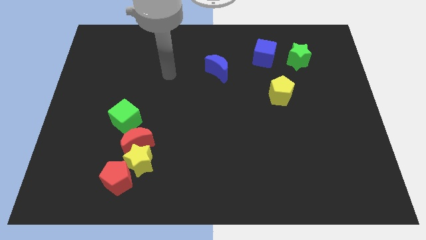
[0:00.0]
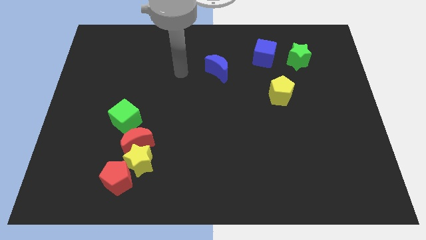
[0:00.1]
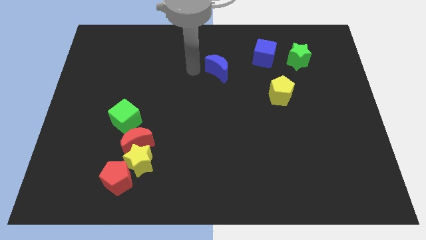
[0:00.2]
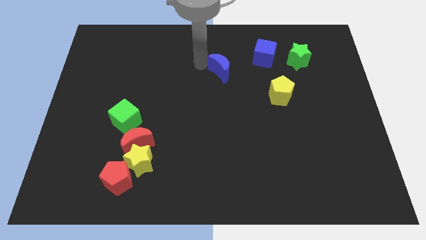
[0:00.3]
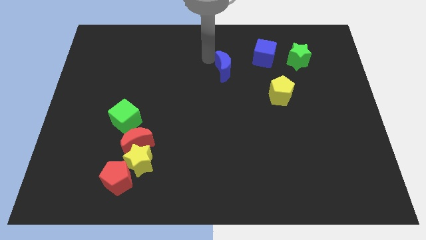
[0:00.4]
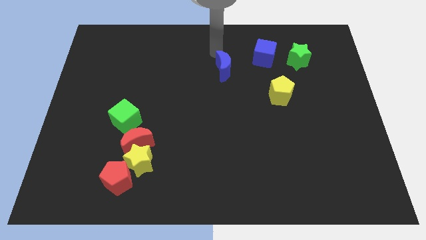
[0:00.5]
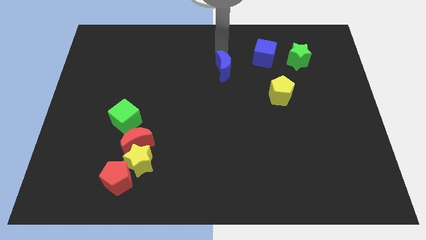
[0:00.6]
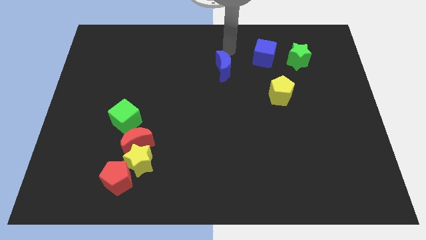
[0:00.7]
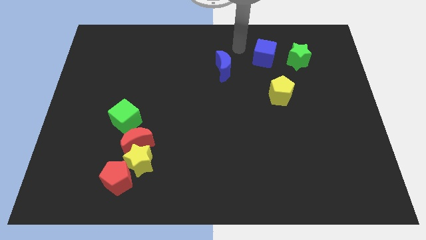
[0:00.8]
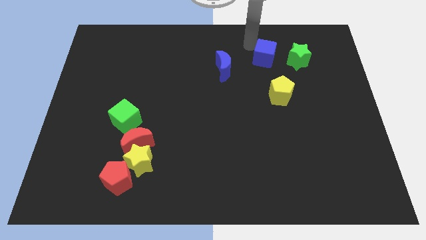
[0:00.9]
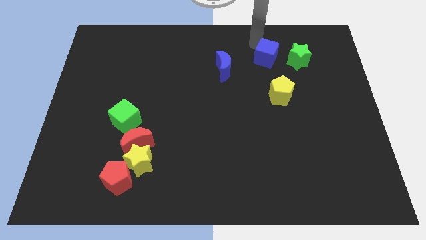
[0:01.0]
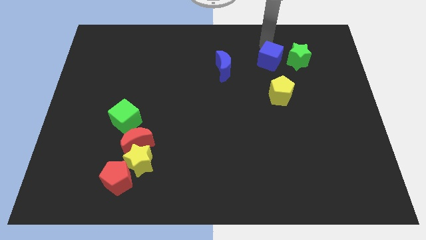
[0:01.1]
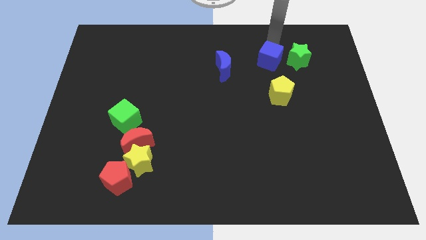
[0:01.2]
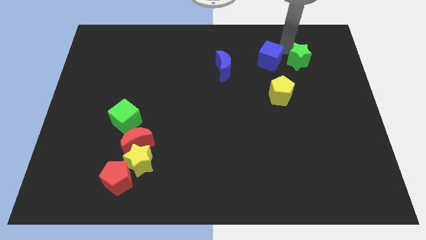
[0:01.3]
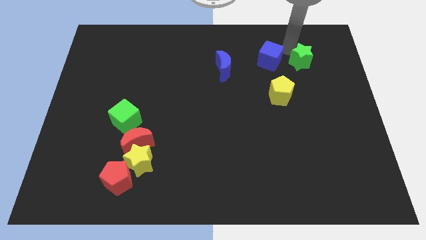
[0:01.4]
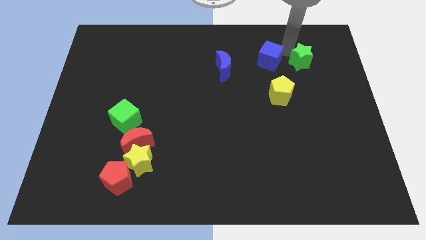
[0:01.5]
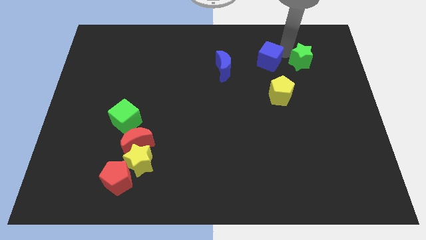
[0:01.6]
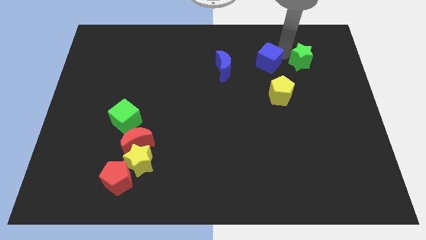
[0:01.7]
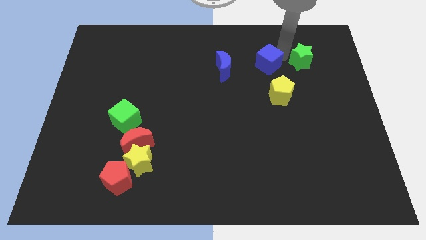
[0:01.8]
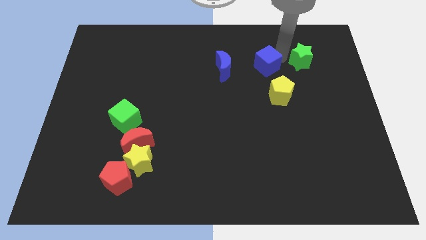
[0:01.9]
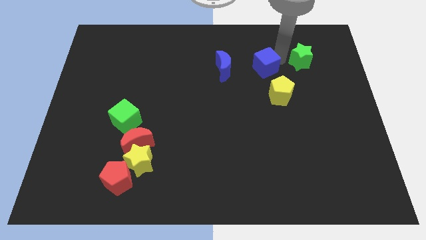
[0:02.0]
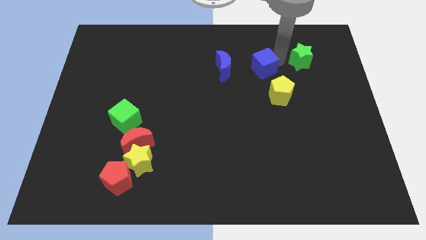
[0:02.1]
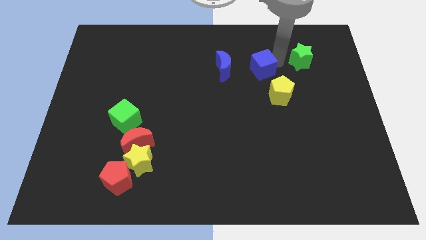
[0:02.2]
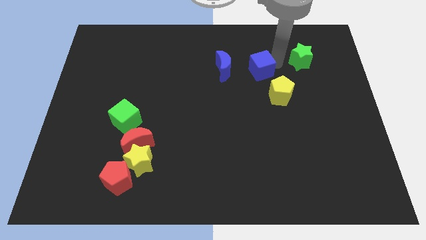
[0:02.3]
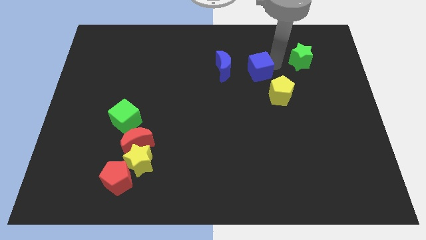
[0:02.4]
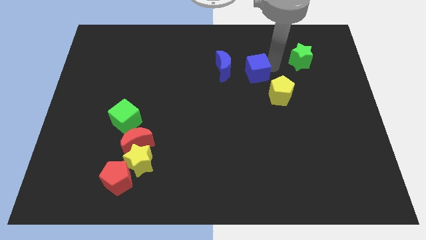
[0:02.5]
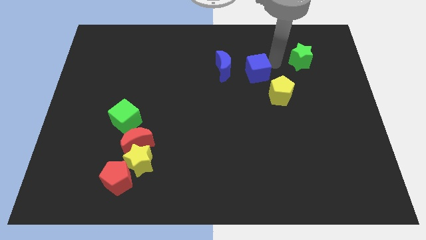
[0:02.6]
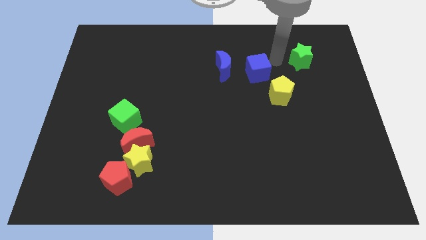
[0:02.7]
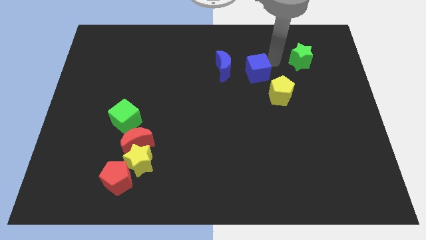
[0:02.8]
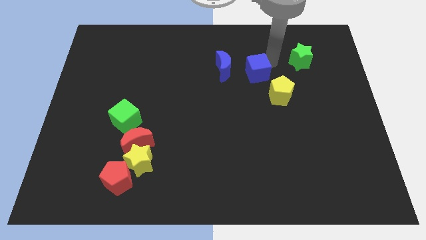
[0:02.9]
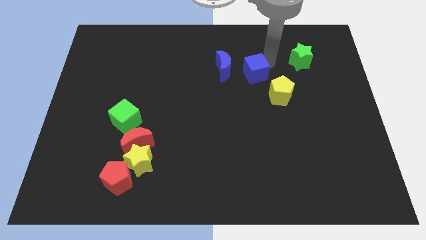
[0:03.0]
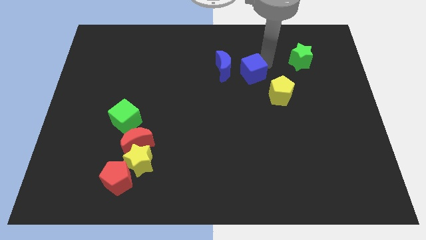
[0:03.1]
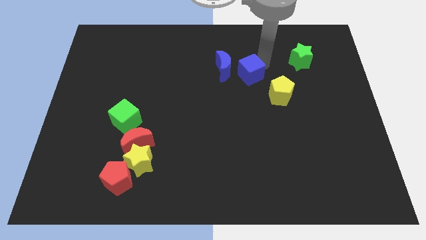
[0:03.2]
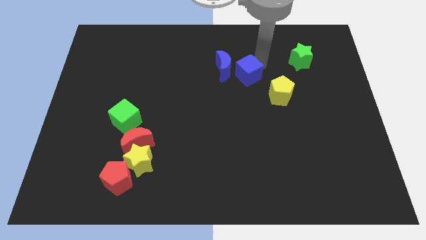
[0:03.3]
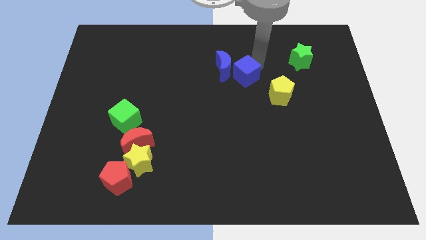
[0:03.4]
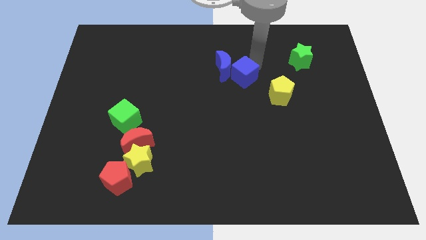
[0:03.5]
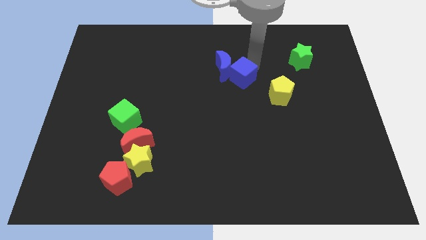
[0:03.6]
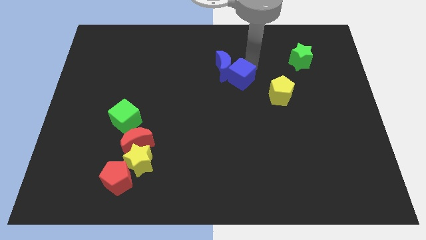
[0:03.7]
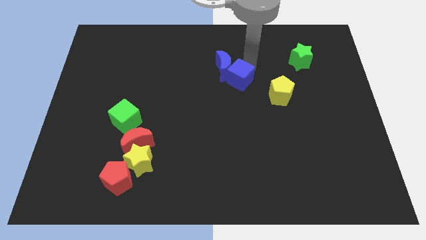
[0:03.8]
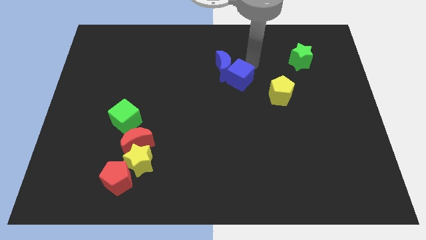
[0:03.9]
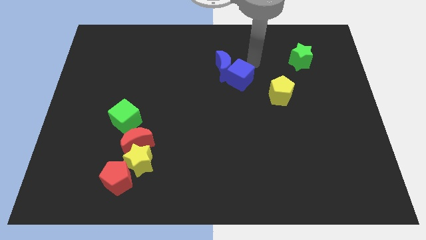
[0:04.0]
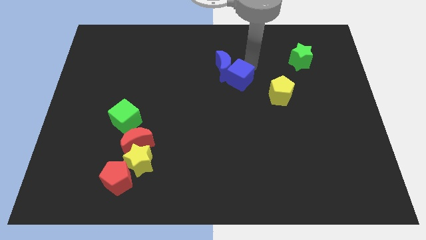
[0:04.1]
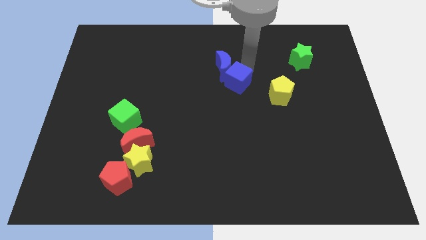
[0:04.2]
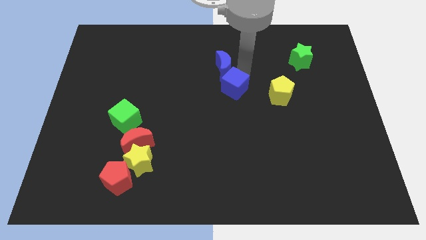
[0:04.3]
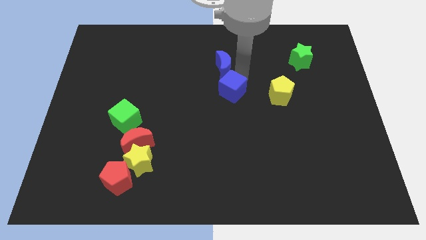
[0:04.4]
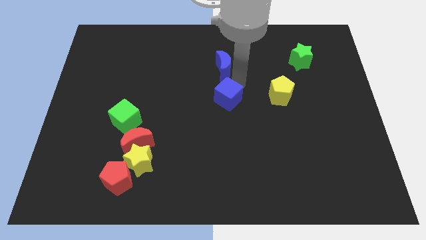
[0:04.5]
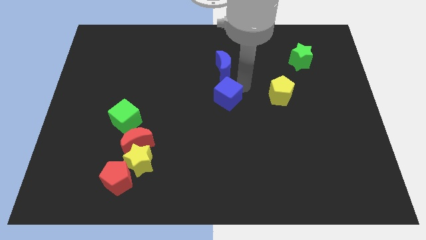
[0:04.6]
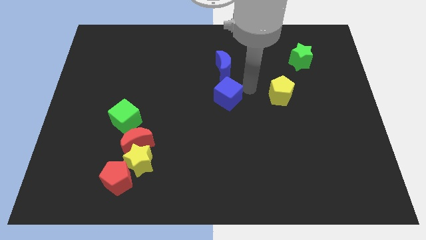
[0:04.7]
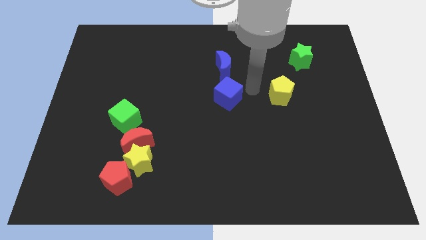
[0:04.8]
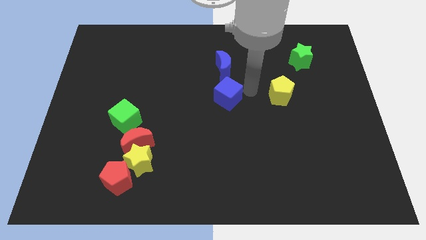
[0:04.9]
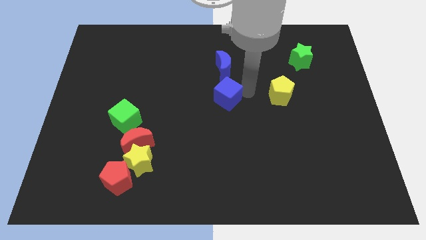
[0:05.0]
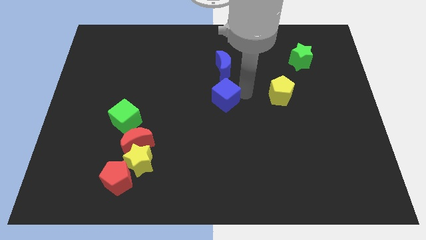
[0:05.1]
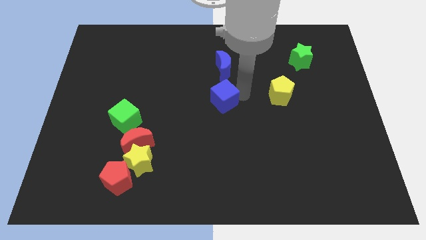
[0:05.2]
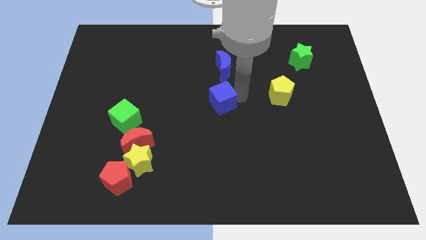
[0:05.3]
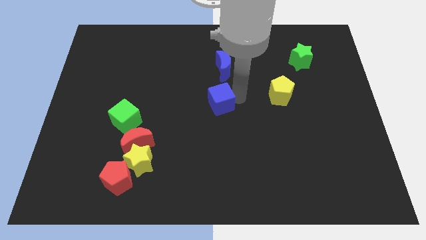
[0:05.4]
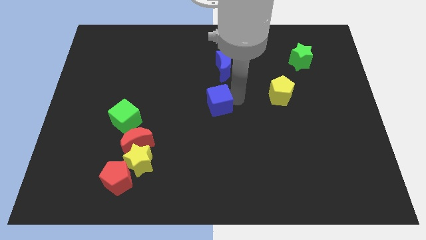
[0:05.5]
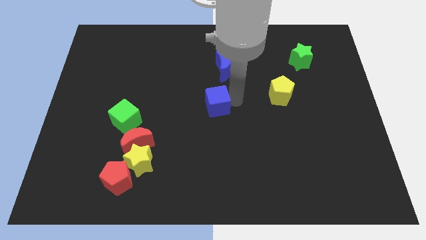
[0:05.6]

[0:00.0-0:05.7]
slide the blue cube downwards and left diagonally

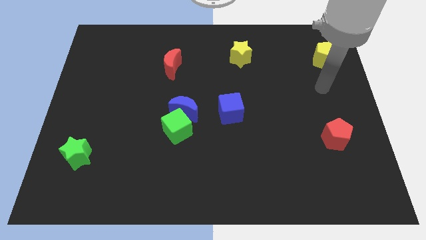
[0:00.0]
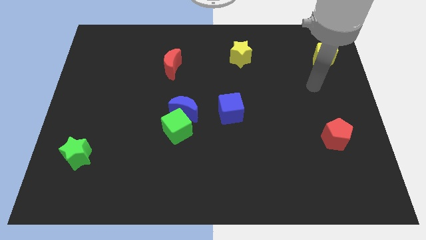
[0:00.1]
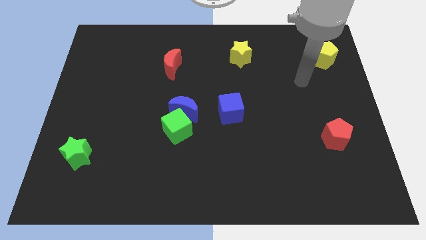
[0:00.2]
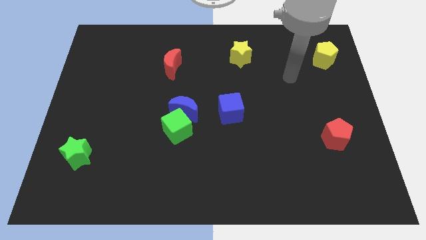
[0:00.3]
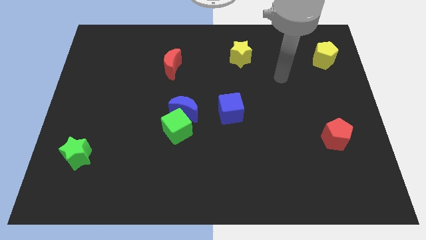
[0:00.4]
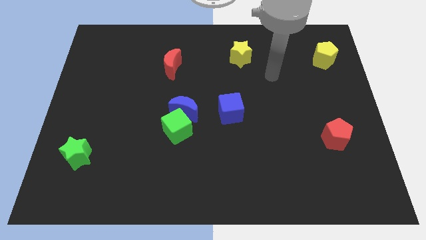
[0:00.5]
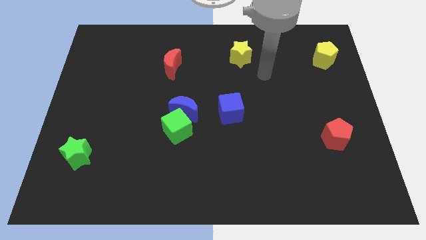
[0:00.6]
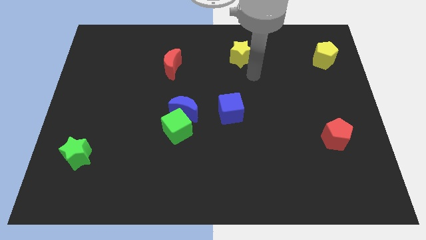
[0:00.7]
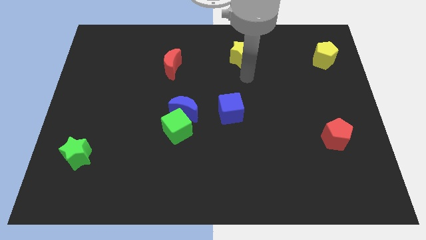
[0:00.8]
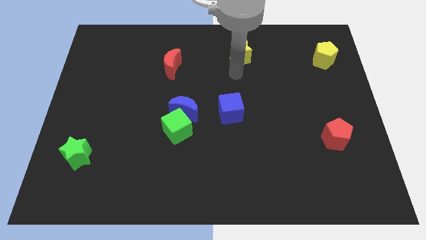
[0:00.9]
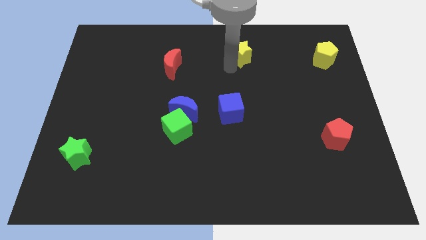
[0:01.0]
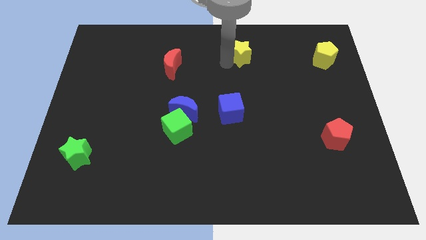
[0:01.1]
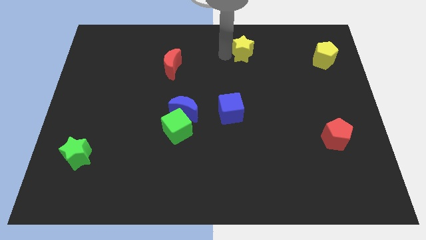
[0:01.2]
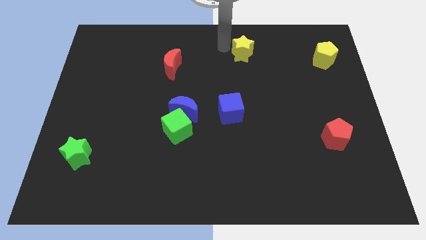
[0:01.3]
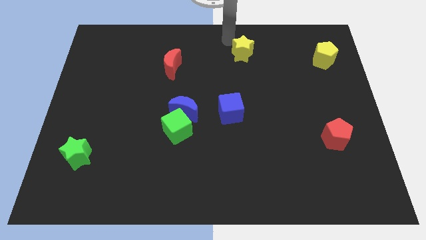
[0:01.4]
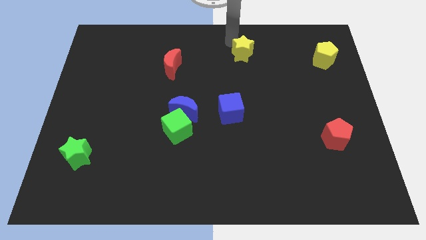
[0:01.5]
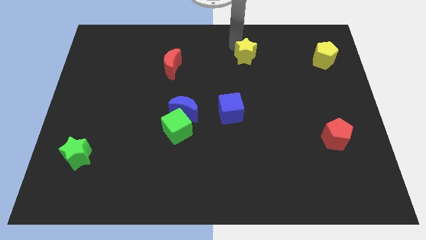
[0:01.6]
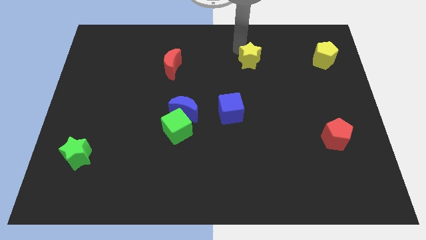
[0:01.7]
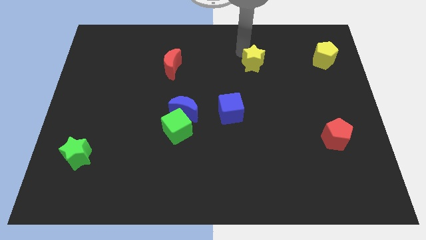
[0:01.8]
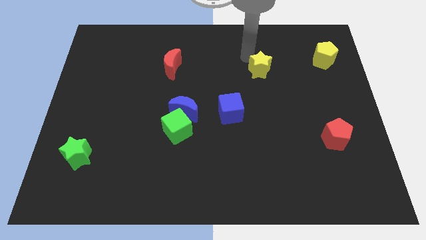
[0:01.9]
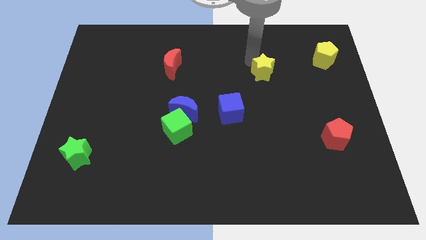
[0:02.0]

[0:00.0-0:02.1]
slide the yellow star down and to the right diagonally a little bit

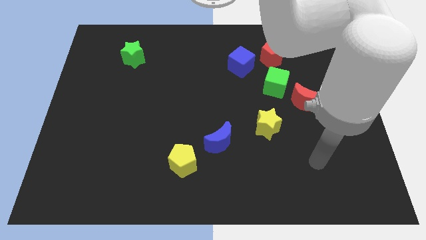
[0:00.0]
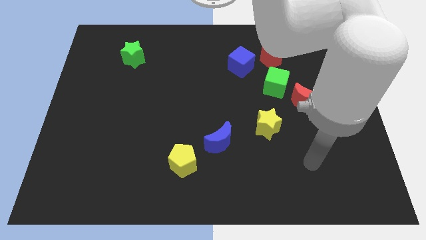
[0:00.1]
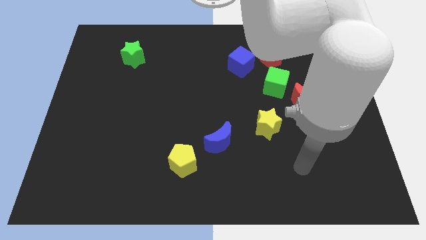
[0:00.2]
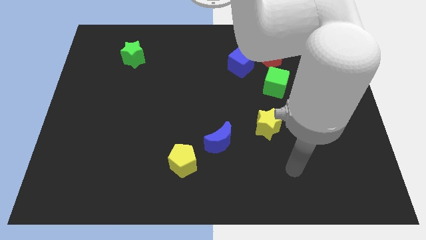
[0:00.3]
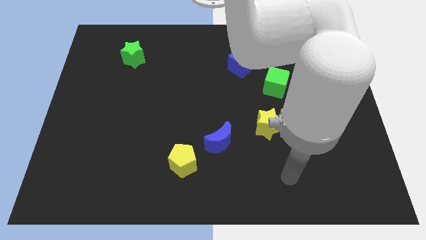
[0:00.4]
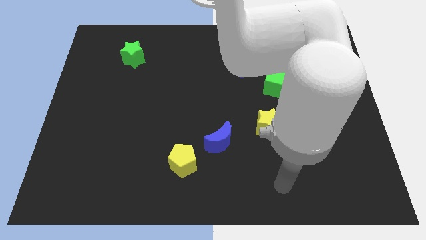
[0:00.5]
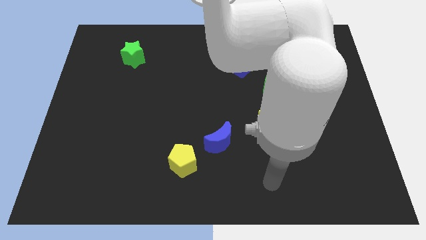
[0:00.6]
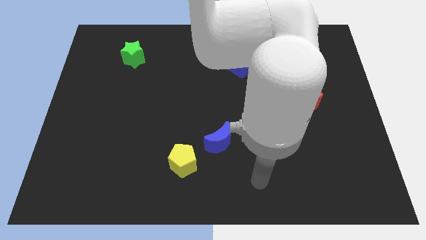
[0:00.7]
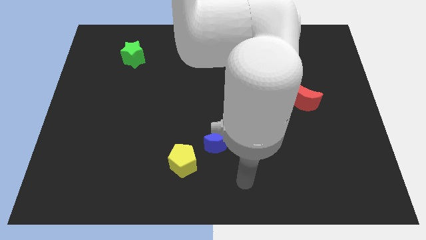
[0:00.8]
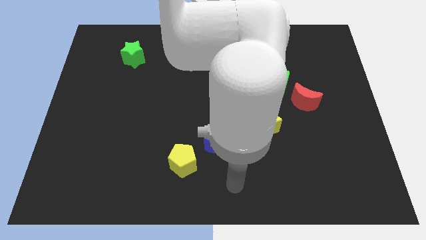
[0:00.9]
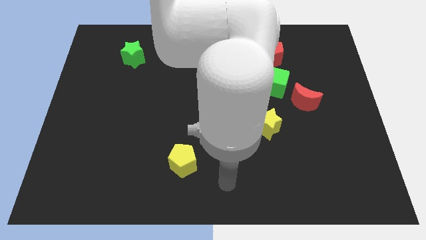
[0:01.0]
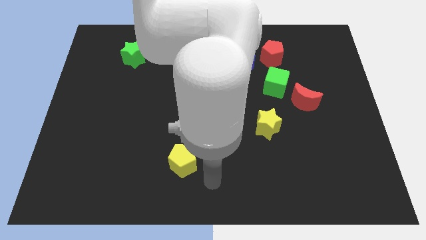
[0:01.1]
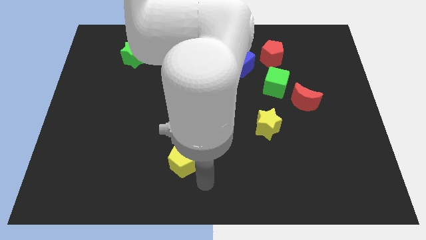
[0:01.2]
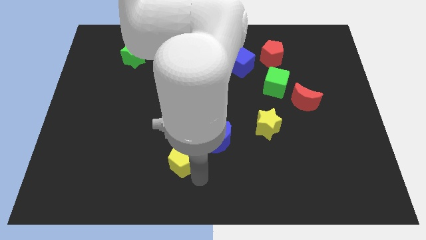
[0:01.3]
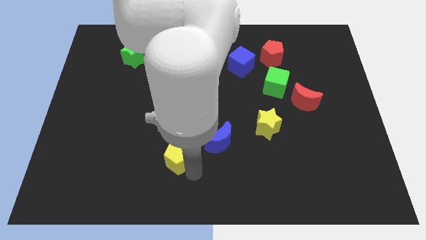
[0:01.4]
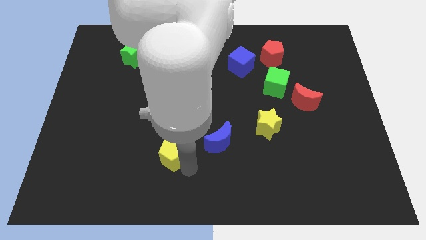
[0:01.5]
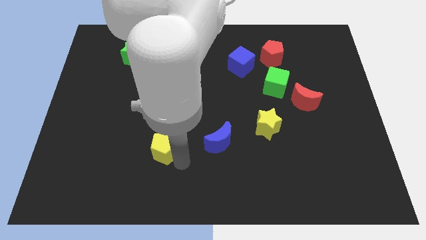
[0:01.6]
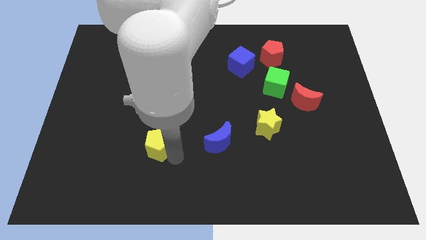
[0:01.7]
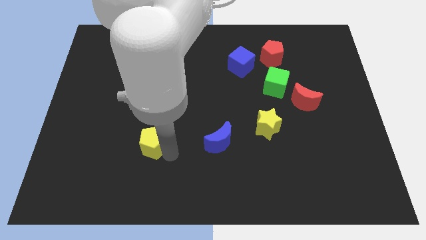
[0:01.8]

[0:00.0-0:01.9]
slightly push the yellow pentagon upwards and to the left diagonally
